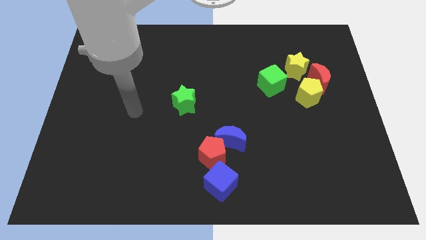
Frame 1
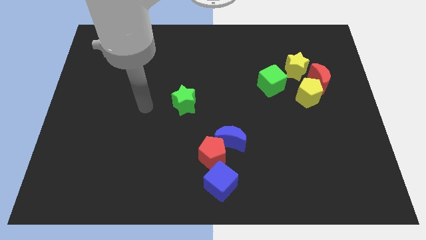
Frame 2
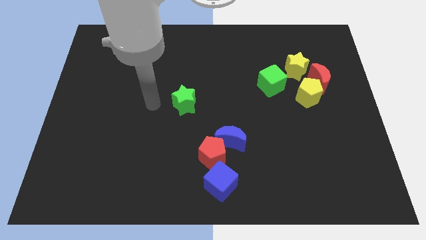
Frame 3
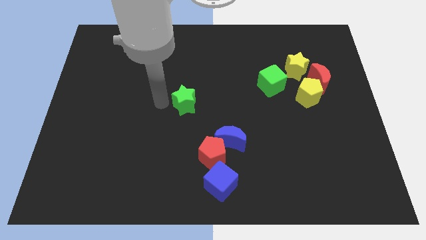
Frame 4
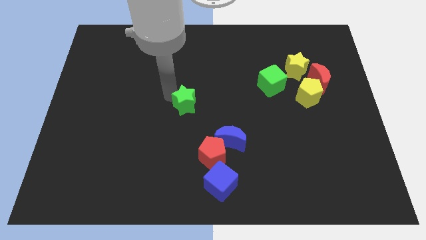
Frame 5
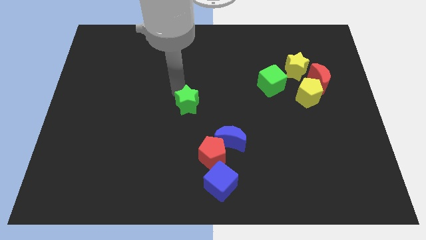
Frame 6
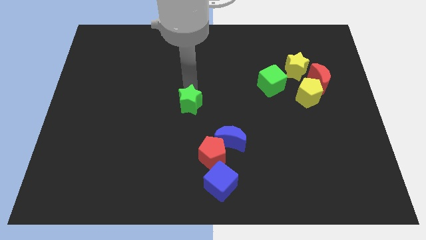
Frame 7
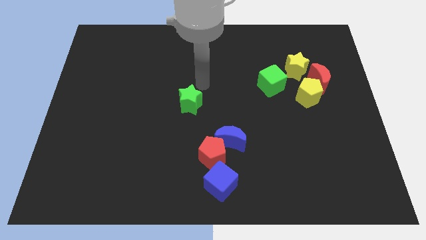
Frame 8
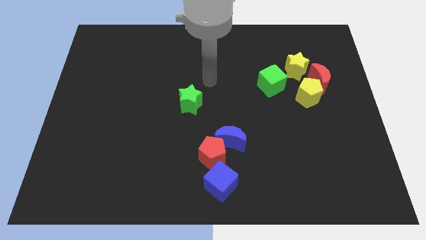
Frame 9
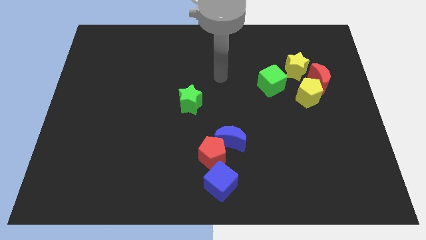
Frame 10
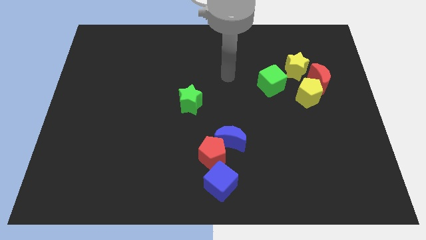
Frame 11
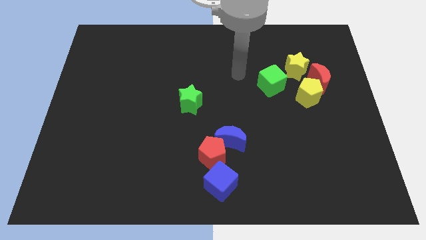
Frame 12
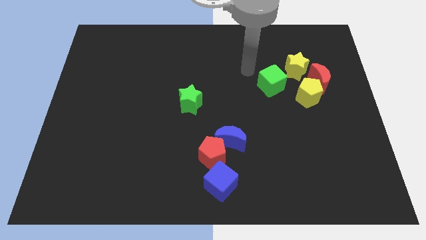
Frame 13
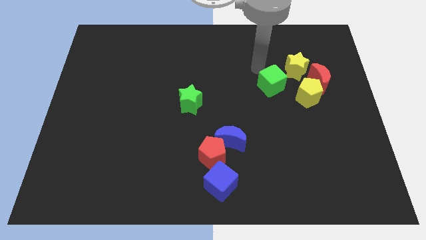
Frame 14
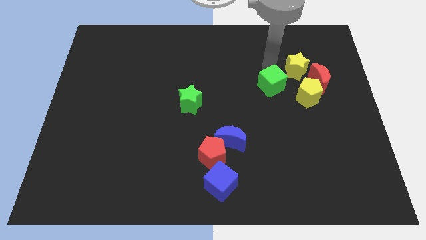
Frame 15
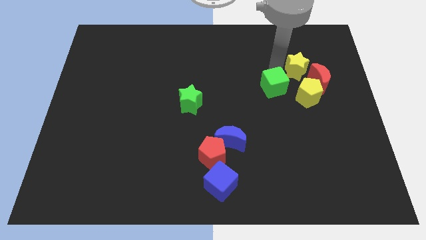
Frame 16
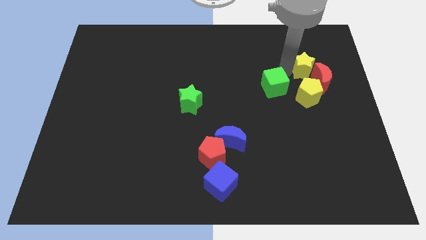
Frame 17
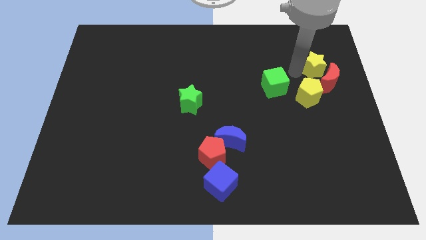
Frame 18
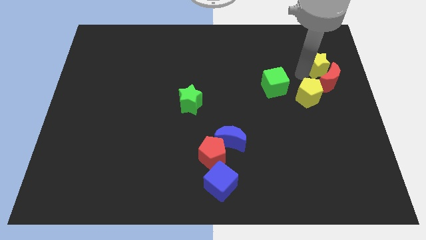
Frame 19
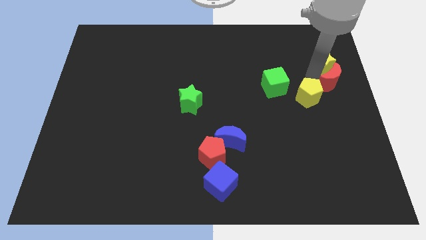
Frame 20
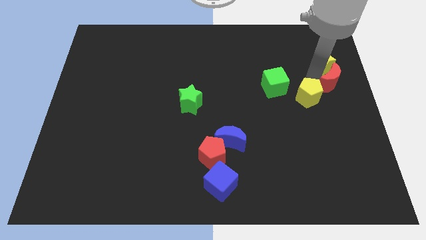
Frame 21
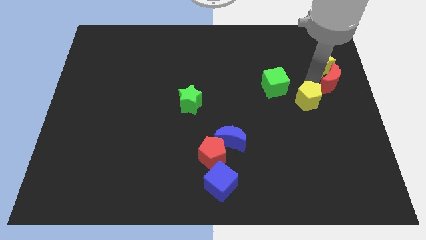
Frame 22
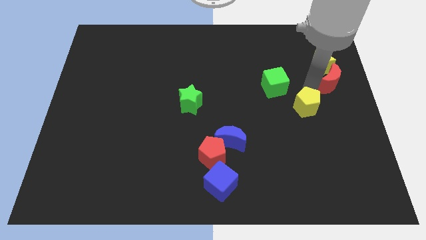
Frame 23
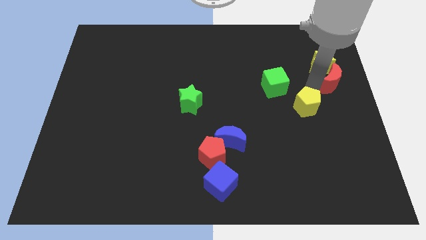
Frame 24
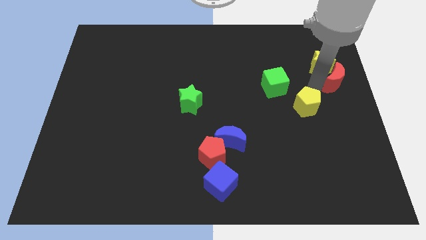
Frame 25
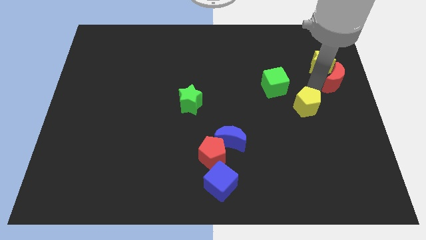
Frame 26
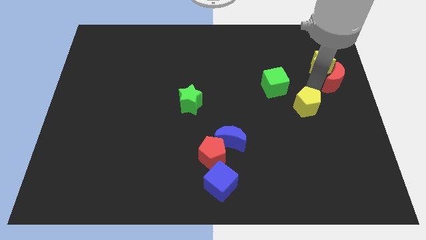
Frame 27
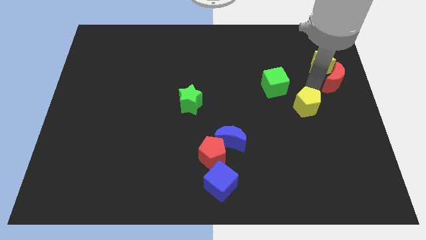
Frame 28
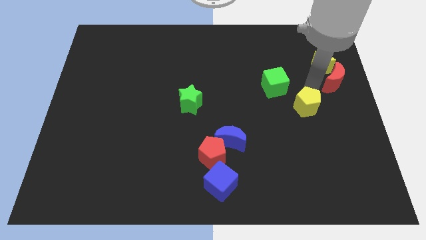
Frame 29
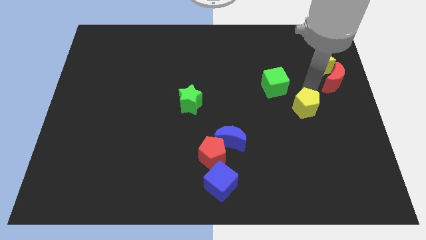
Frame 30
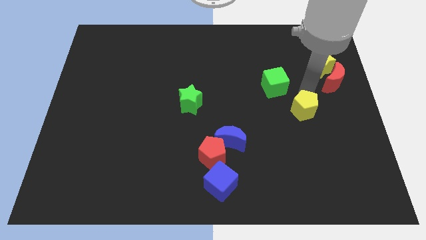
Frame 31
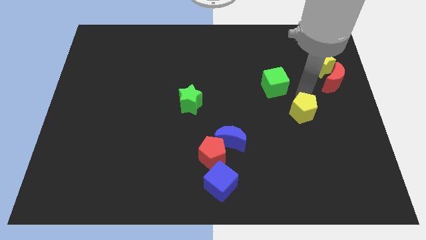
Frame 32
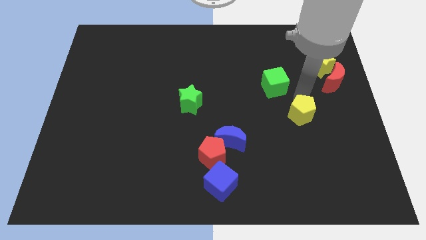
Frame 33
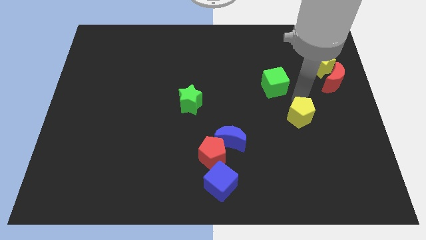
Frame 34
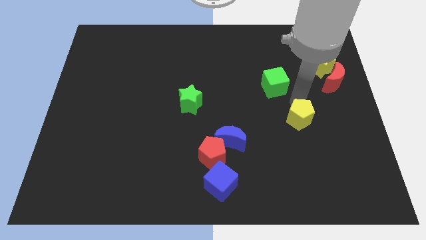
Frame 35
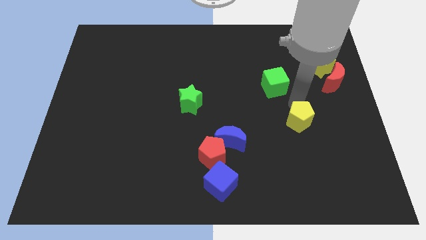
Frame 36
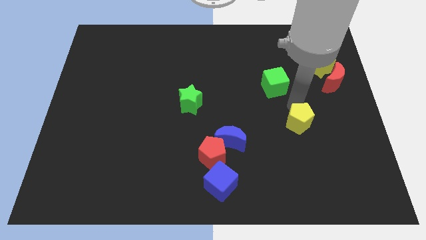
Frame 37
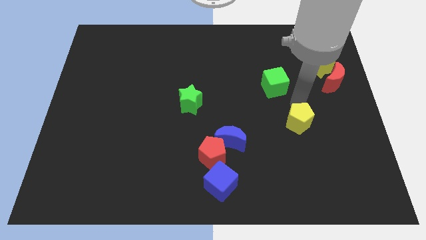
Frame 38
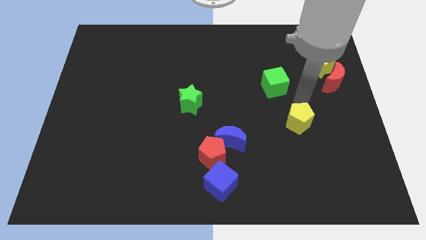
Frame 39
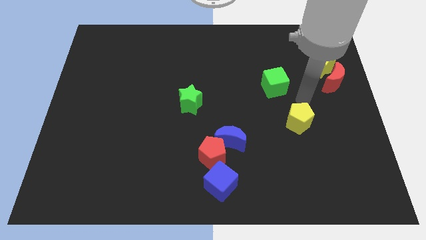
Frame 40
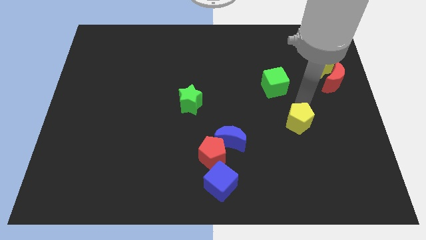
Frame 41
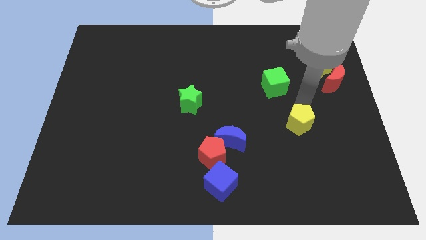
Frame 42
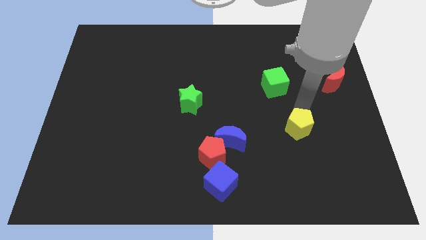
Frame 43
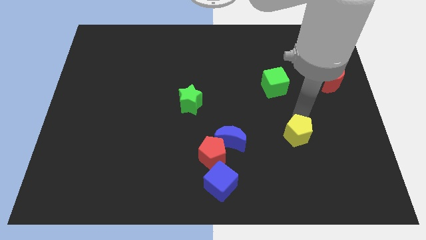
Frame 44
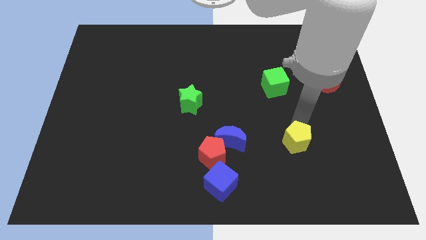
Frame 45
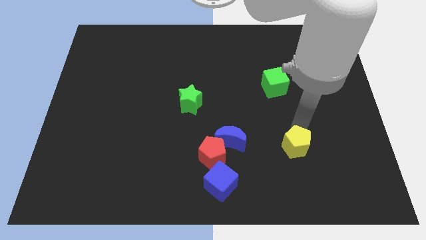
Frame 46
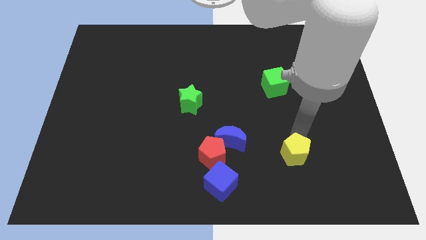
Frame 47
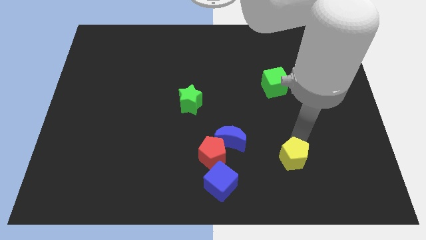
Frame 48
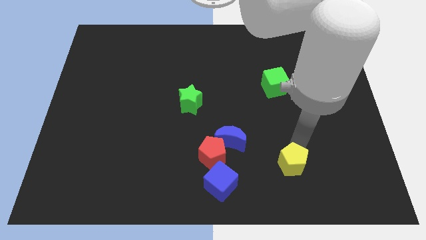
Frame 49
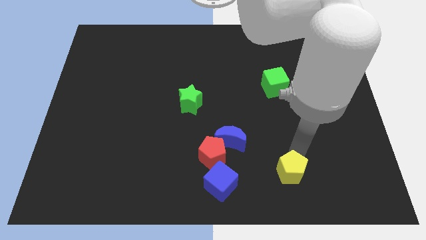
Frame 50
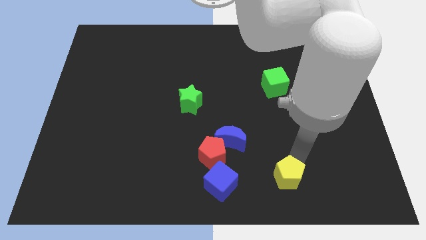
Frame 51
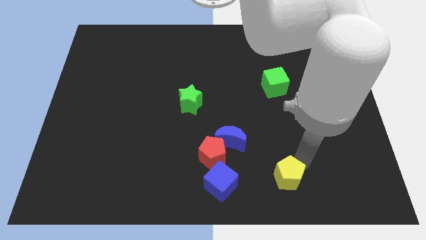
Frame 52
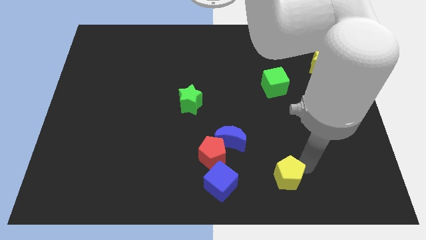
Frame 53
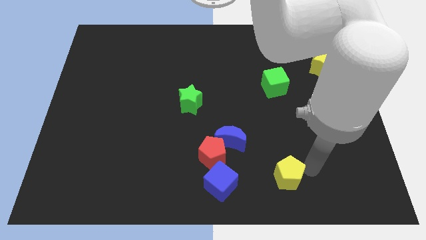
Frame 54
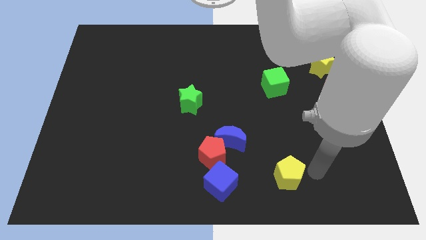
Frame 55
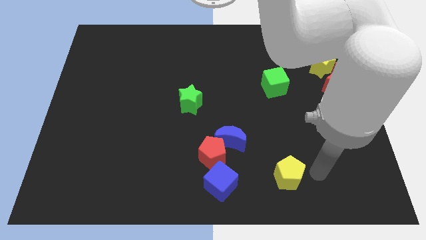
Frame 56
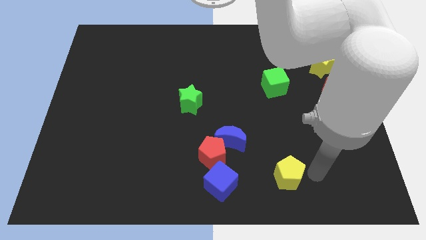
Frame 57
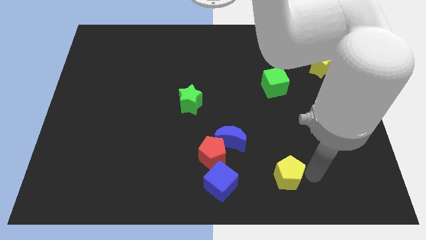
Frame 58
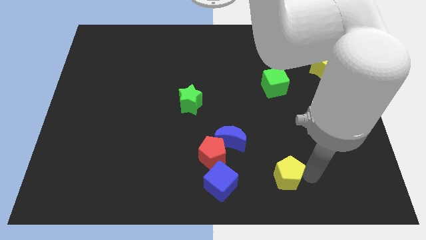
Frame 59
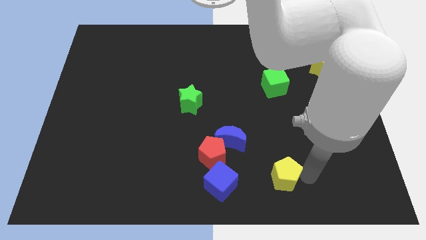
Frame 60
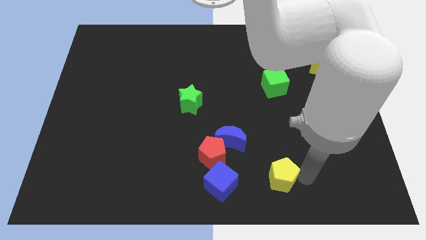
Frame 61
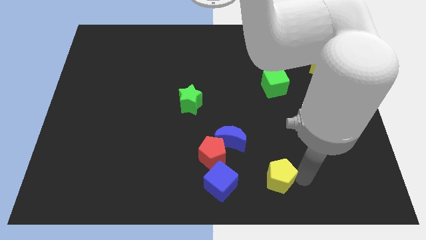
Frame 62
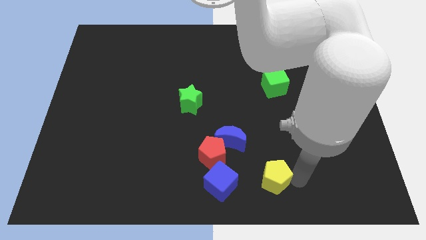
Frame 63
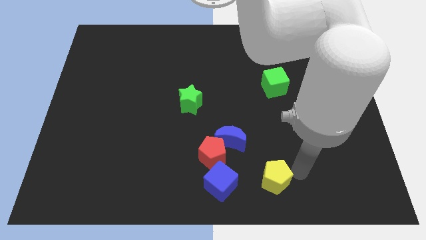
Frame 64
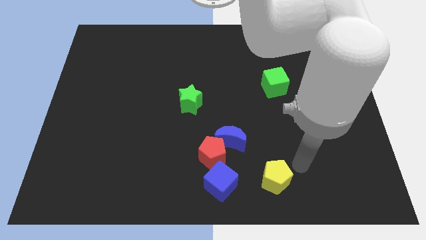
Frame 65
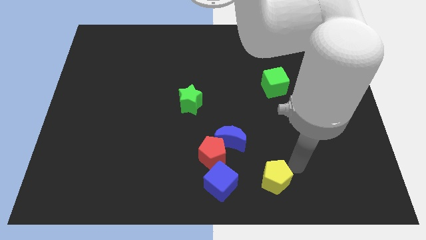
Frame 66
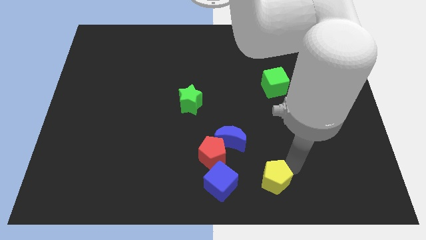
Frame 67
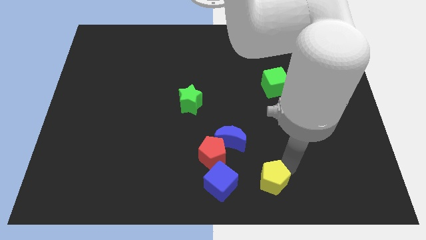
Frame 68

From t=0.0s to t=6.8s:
move the yellow pentagon to the bottom side
